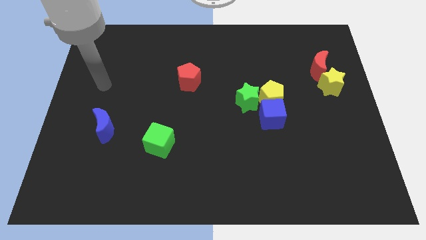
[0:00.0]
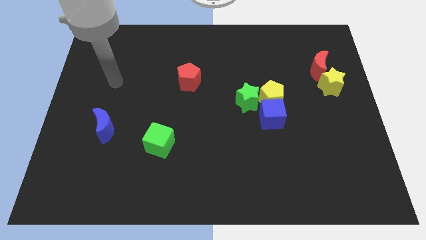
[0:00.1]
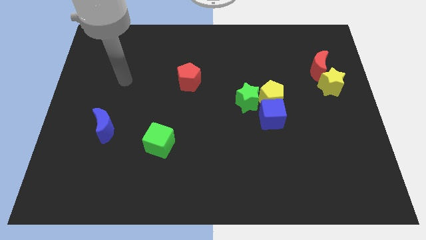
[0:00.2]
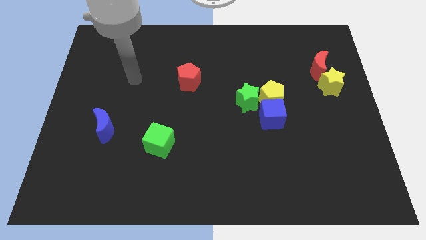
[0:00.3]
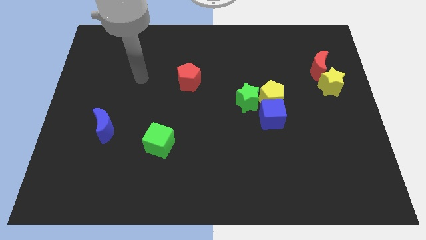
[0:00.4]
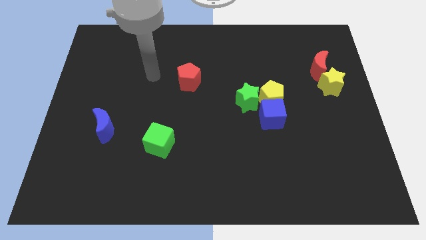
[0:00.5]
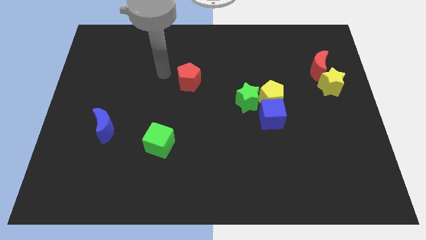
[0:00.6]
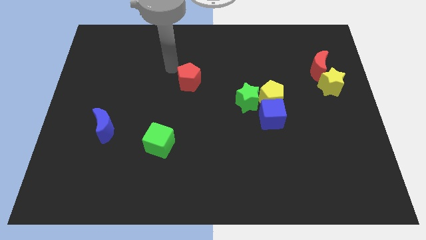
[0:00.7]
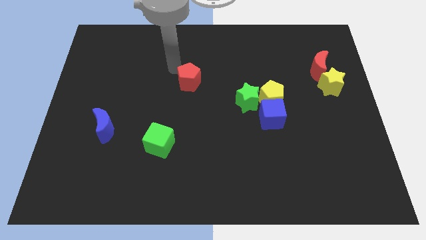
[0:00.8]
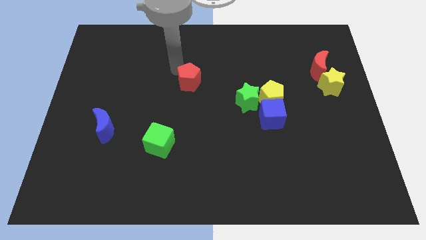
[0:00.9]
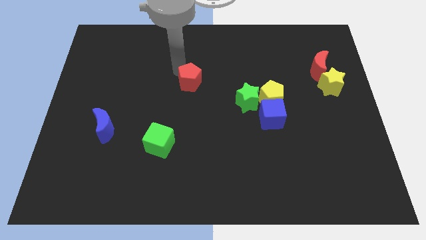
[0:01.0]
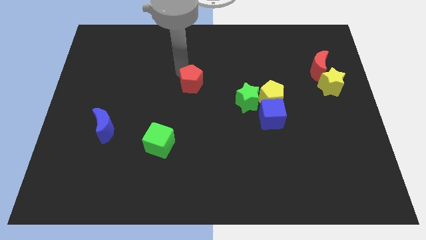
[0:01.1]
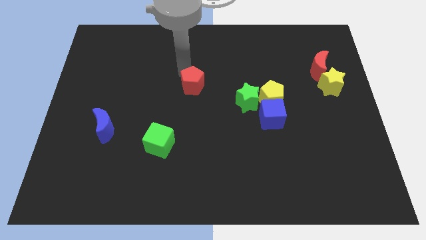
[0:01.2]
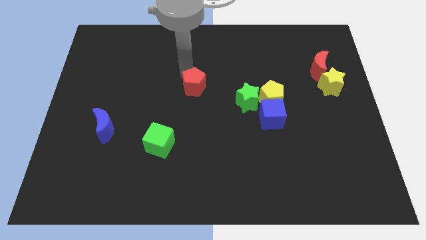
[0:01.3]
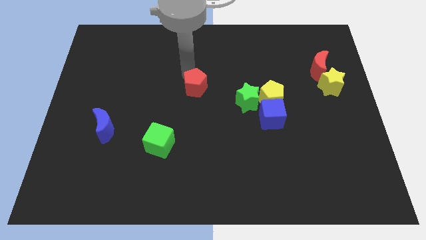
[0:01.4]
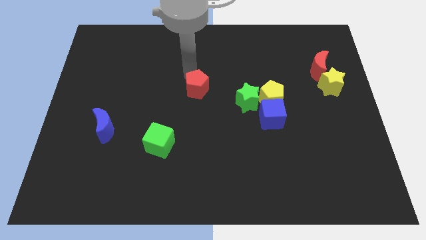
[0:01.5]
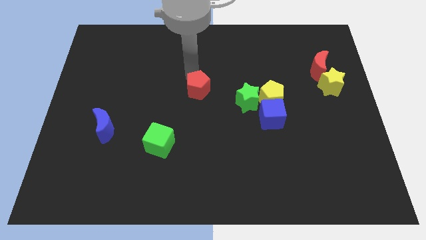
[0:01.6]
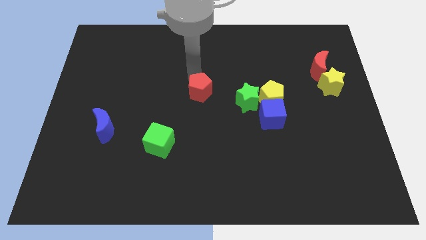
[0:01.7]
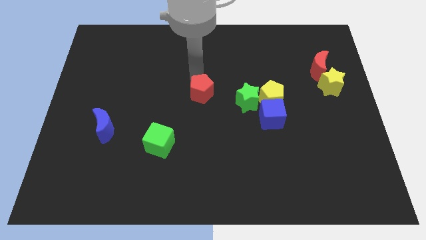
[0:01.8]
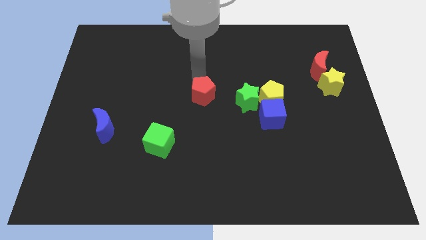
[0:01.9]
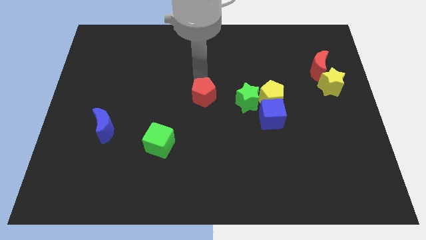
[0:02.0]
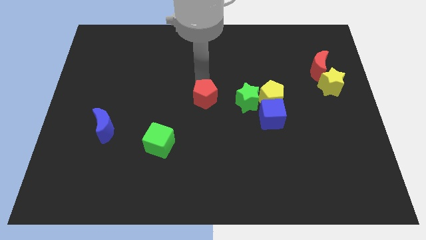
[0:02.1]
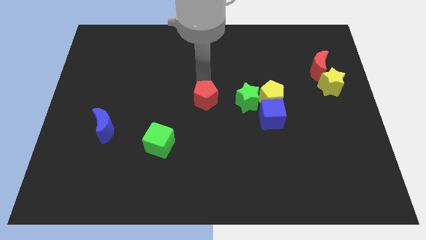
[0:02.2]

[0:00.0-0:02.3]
push the red pentagon a little diagonally downwards and right

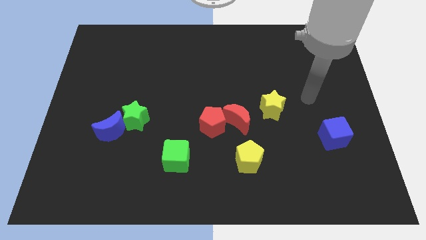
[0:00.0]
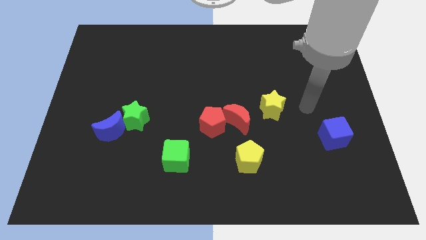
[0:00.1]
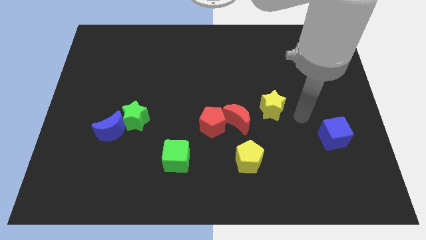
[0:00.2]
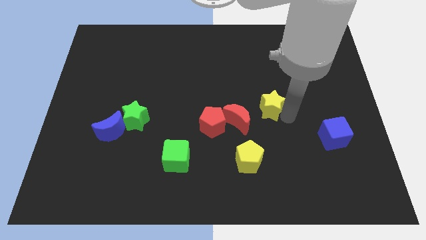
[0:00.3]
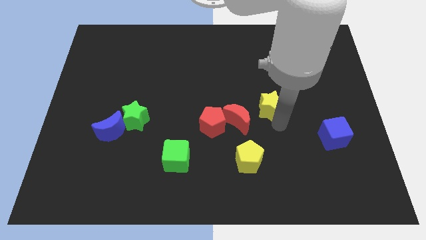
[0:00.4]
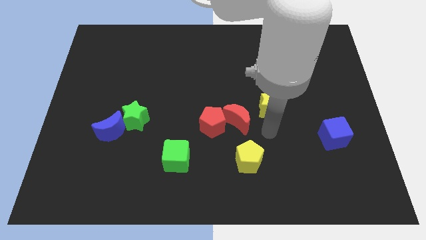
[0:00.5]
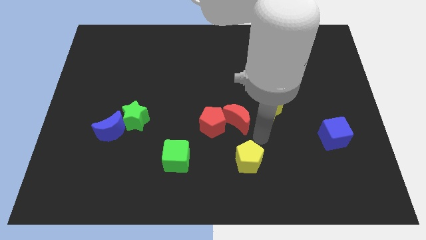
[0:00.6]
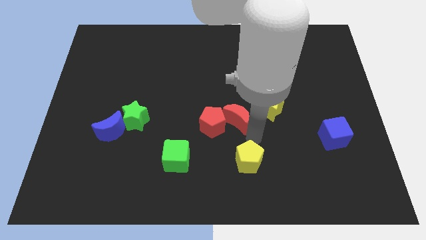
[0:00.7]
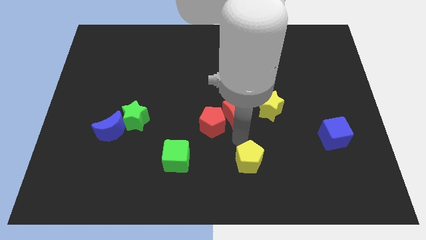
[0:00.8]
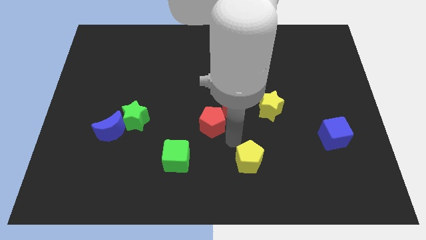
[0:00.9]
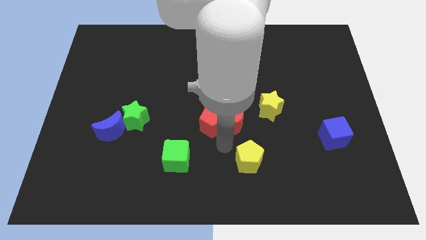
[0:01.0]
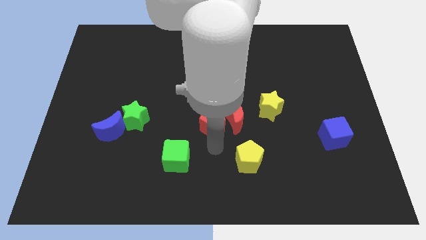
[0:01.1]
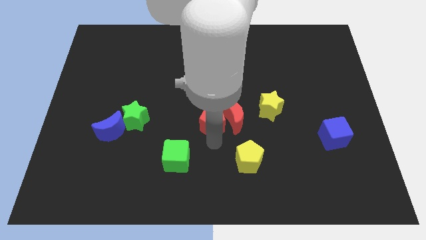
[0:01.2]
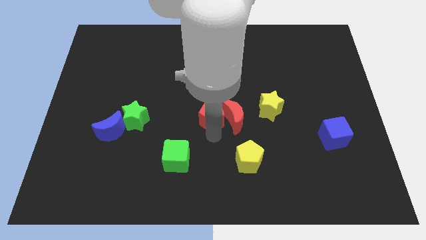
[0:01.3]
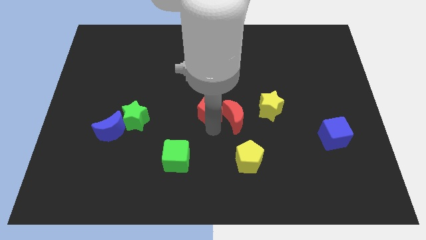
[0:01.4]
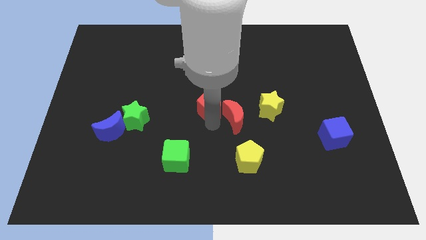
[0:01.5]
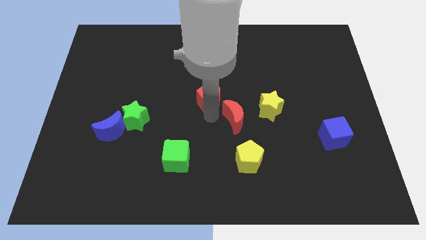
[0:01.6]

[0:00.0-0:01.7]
slightly move the red pentagon up

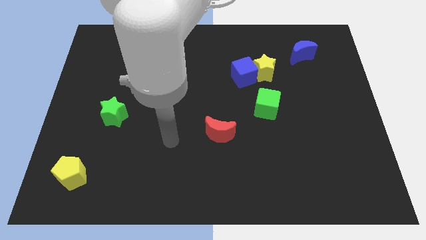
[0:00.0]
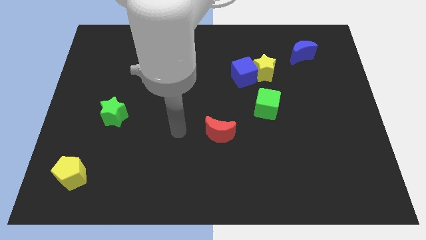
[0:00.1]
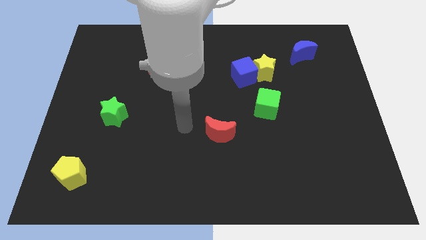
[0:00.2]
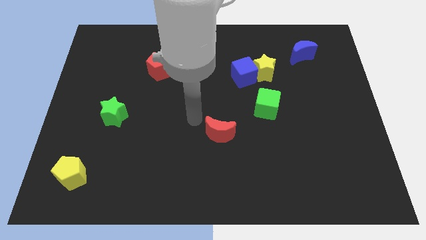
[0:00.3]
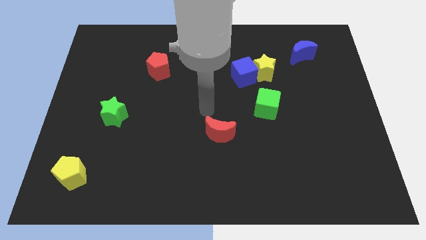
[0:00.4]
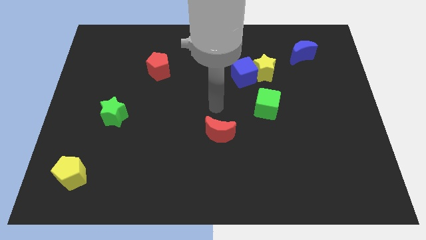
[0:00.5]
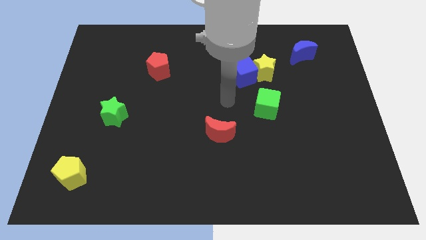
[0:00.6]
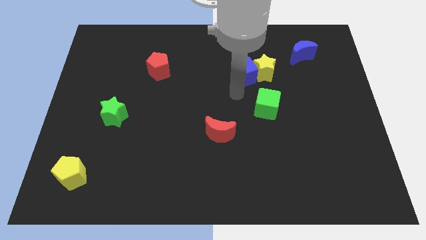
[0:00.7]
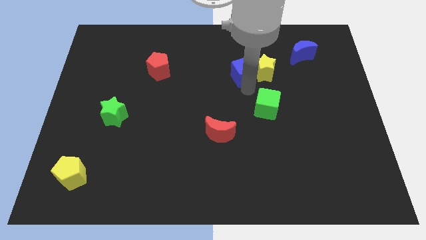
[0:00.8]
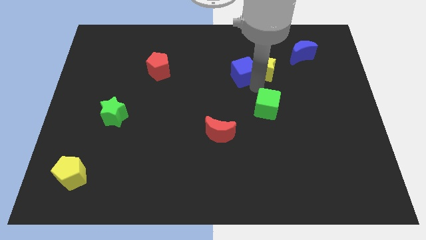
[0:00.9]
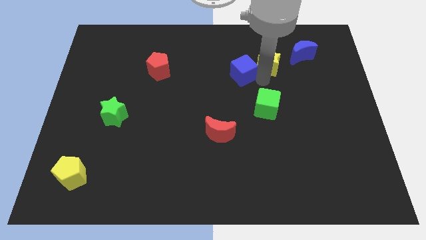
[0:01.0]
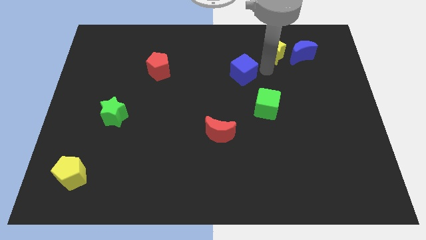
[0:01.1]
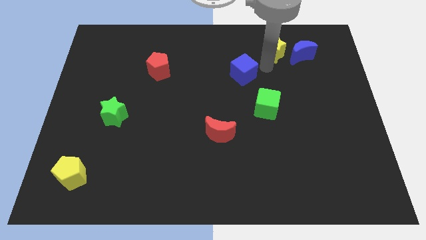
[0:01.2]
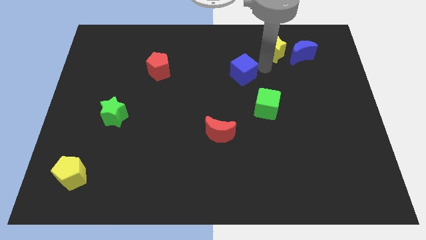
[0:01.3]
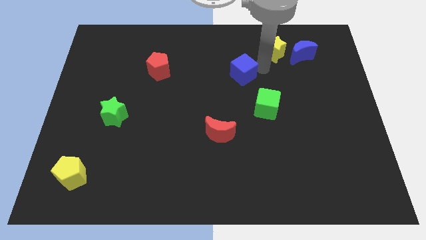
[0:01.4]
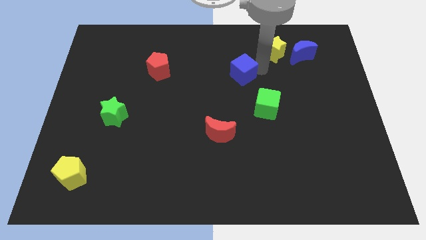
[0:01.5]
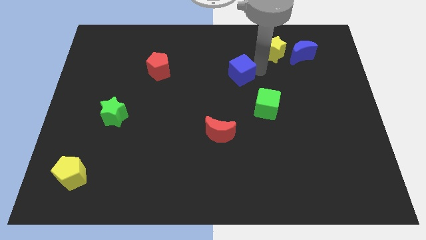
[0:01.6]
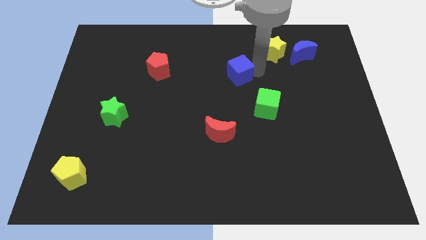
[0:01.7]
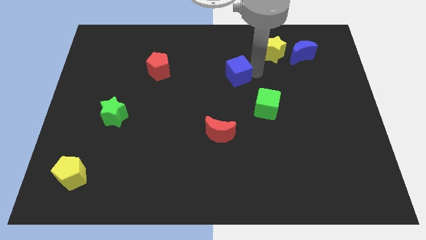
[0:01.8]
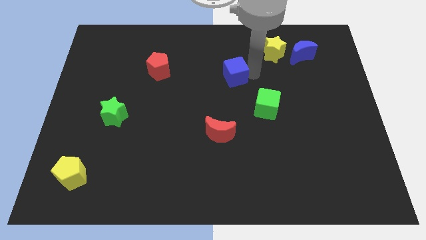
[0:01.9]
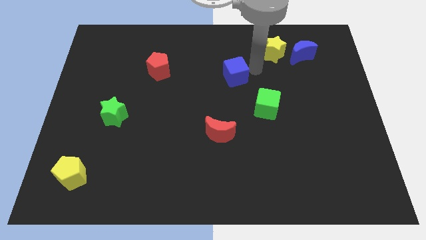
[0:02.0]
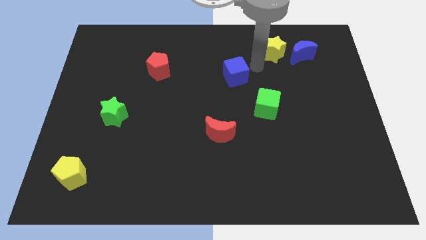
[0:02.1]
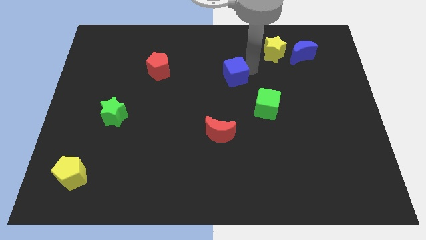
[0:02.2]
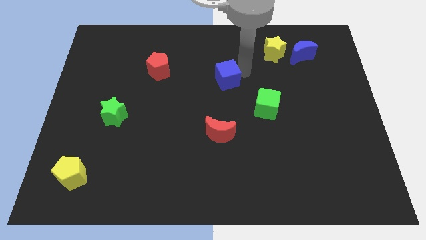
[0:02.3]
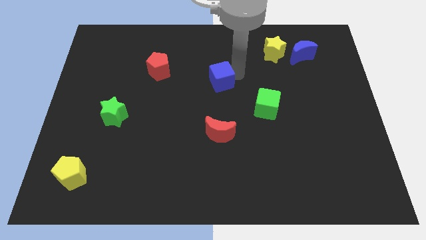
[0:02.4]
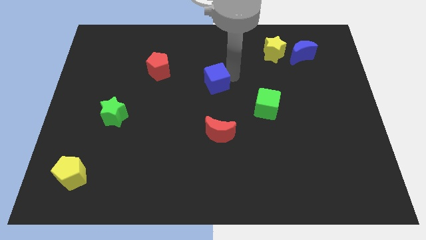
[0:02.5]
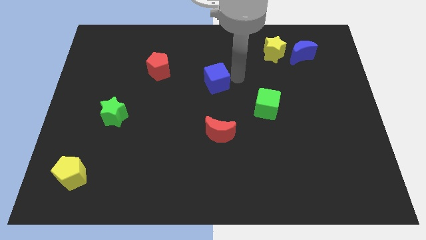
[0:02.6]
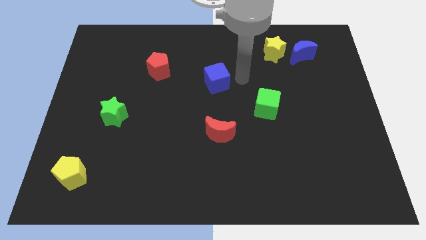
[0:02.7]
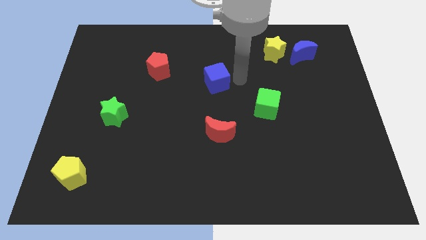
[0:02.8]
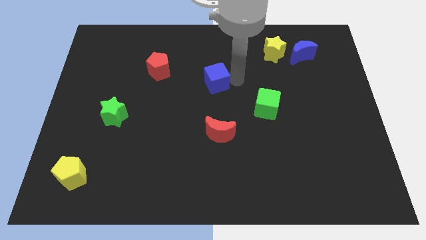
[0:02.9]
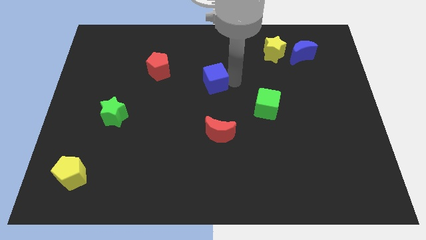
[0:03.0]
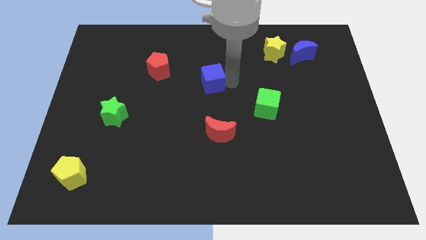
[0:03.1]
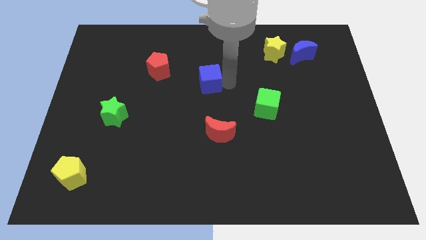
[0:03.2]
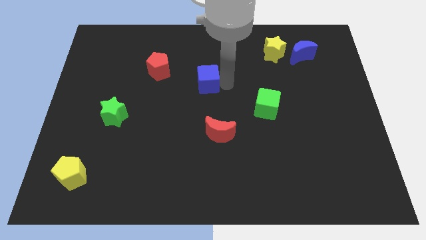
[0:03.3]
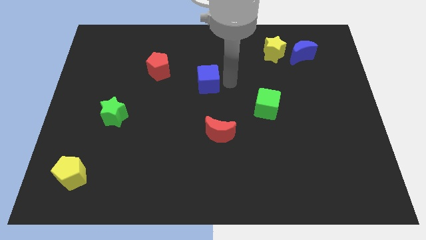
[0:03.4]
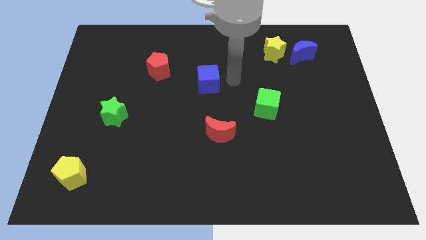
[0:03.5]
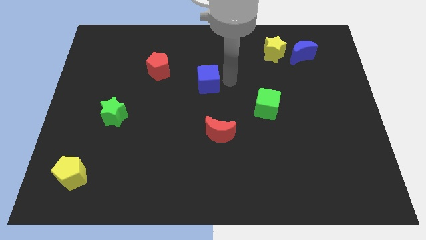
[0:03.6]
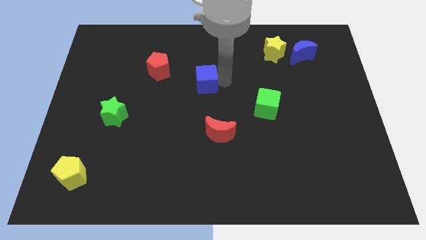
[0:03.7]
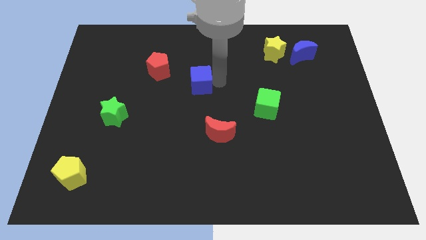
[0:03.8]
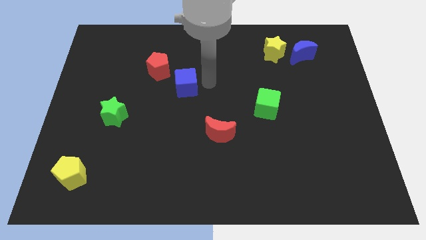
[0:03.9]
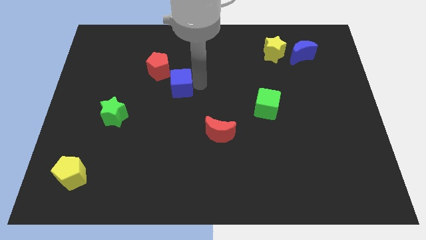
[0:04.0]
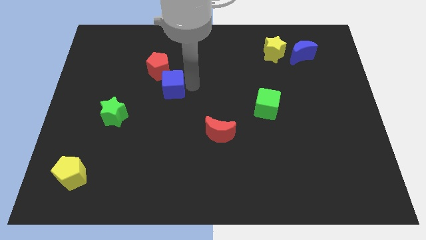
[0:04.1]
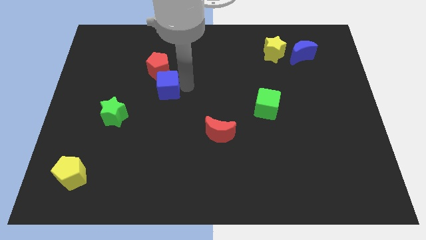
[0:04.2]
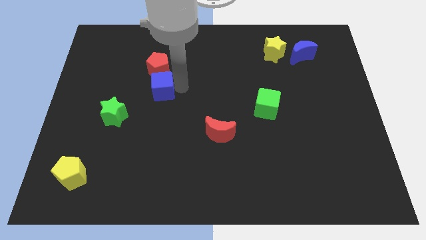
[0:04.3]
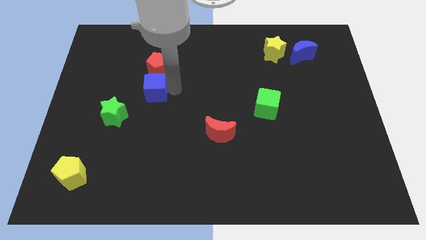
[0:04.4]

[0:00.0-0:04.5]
push the blue cube left

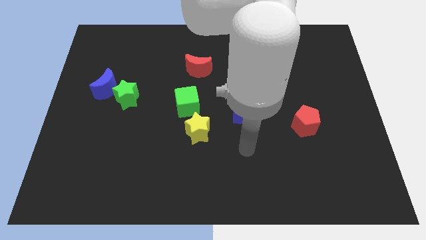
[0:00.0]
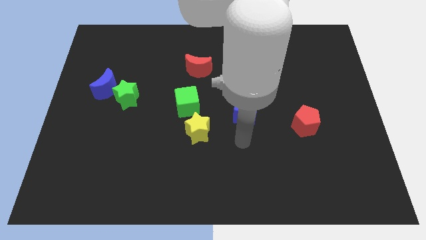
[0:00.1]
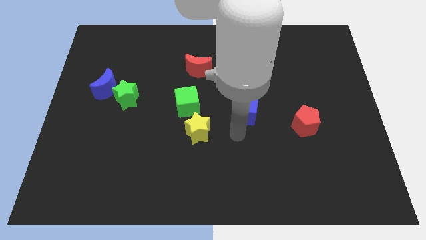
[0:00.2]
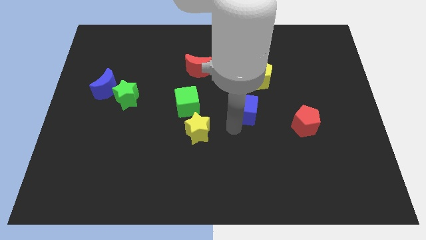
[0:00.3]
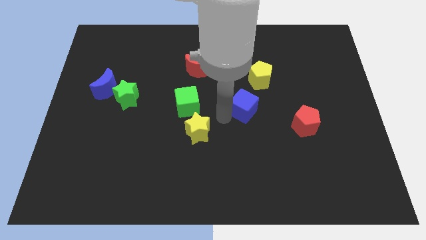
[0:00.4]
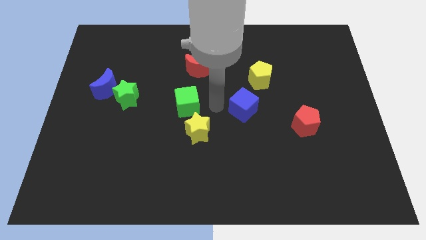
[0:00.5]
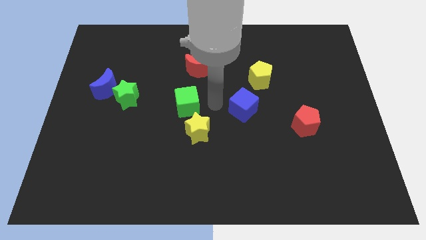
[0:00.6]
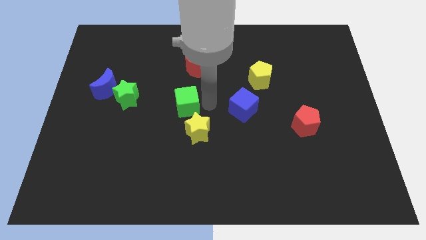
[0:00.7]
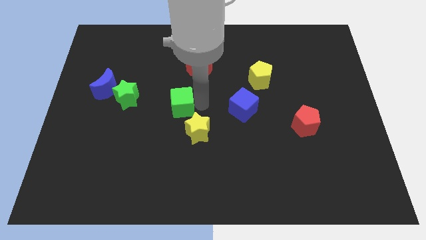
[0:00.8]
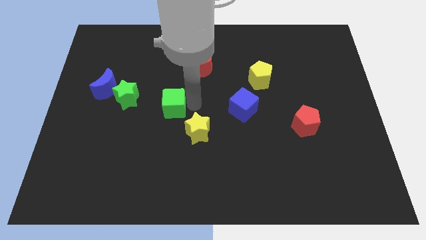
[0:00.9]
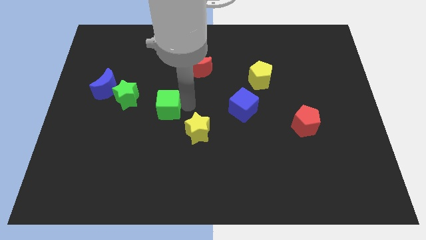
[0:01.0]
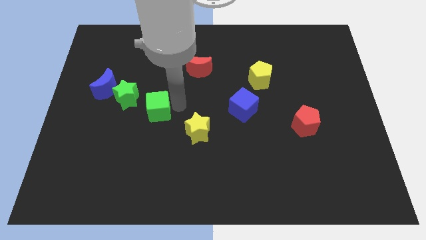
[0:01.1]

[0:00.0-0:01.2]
slide the green cube somewhat left
